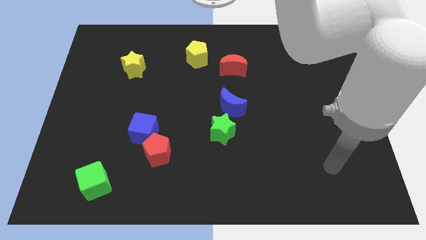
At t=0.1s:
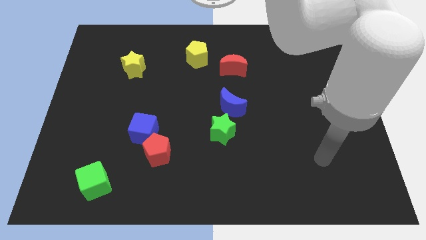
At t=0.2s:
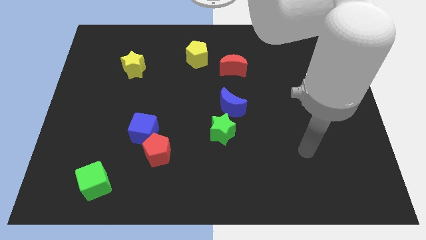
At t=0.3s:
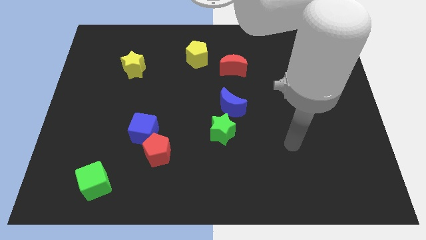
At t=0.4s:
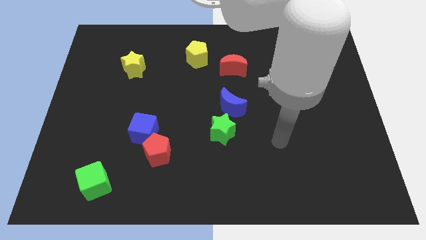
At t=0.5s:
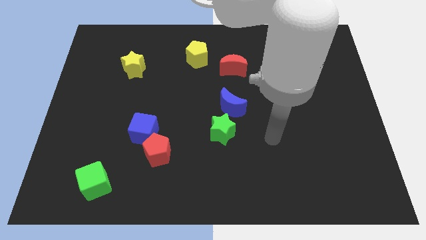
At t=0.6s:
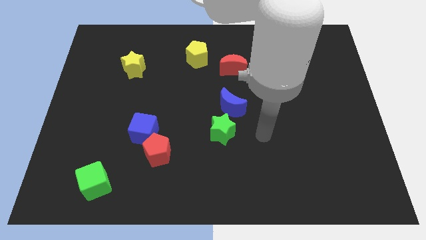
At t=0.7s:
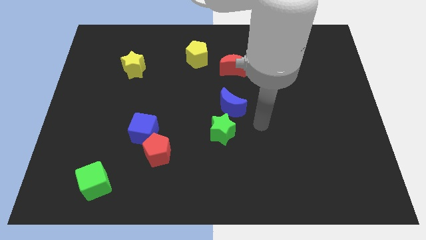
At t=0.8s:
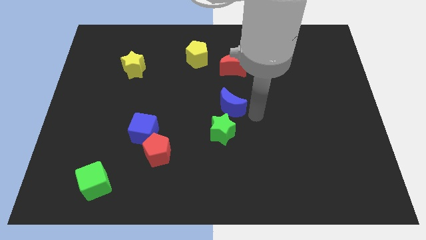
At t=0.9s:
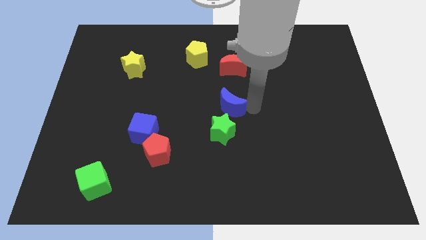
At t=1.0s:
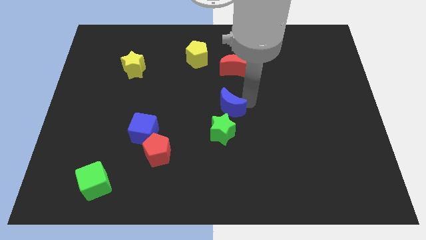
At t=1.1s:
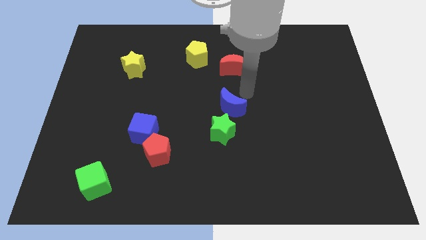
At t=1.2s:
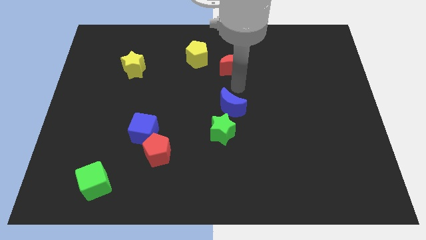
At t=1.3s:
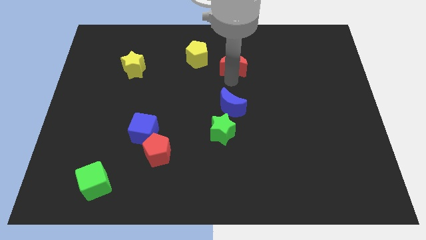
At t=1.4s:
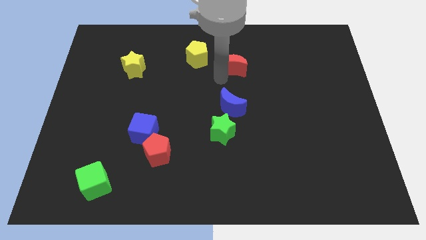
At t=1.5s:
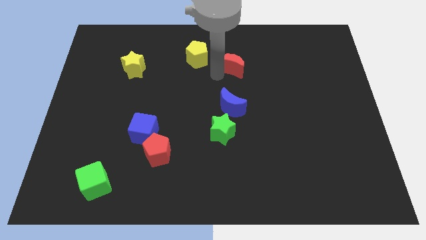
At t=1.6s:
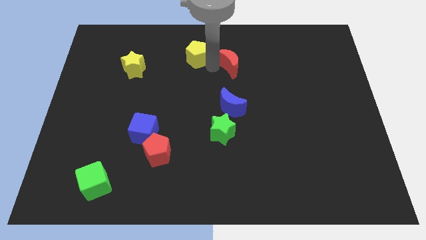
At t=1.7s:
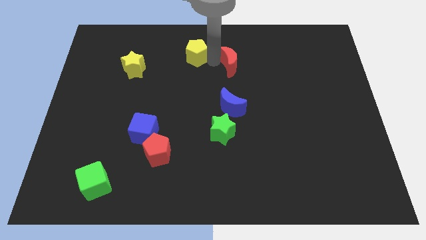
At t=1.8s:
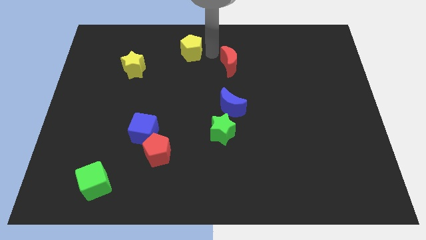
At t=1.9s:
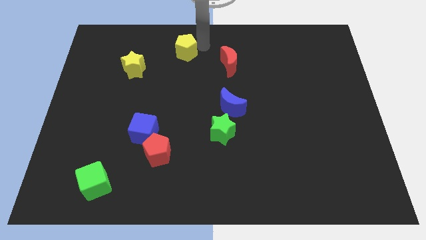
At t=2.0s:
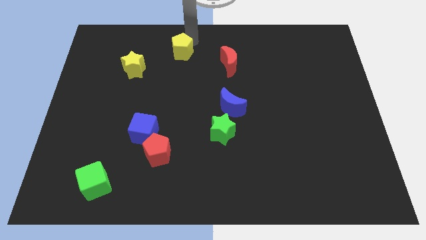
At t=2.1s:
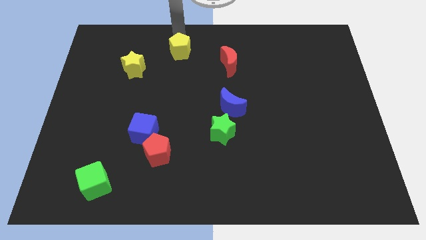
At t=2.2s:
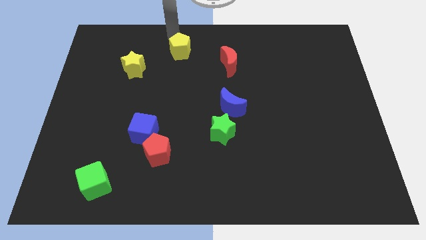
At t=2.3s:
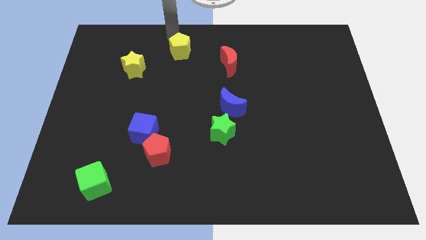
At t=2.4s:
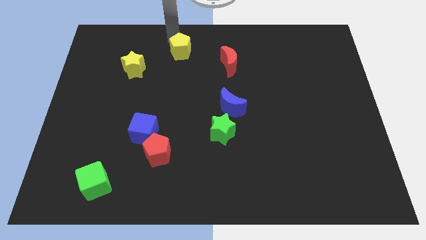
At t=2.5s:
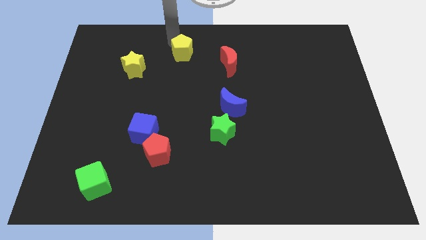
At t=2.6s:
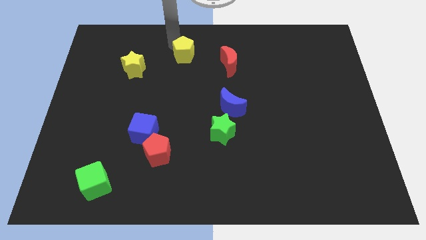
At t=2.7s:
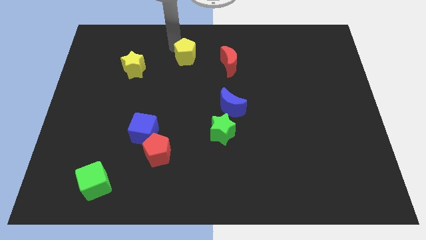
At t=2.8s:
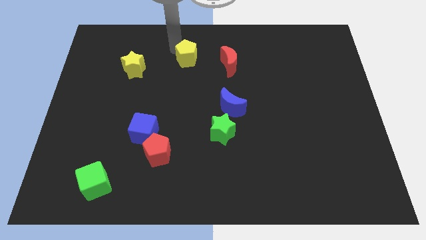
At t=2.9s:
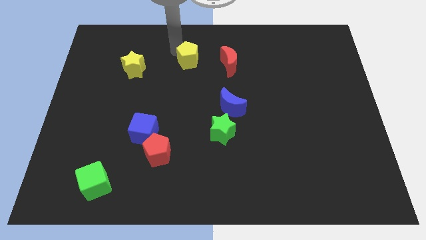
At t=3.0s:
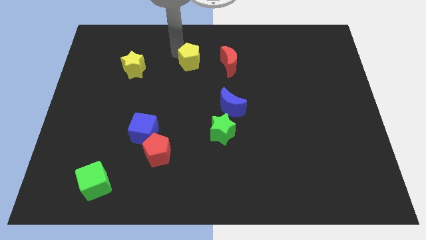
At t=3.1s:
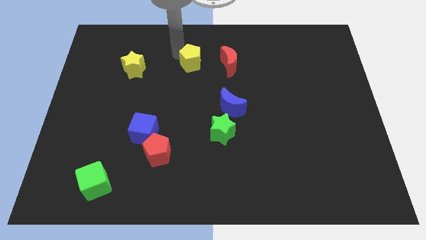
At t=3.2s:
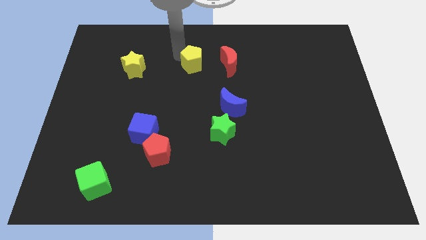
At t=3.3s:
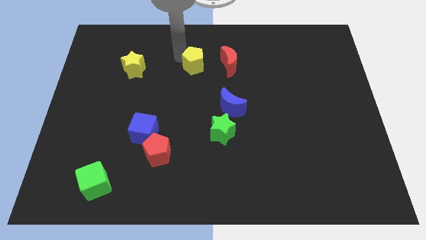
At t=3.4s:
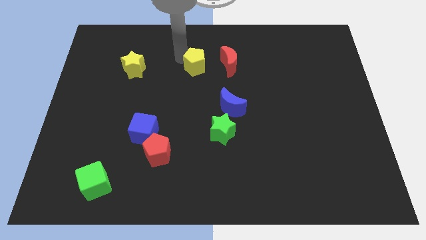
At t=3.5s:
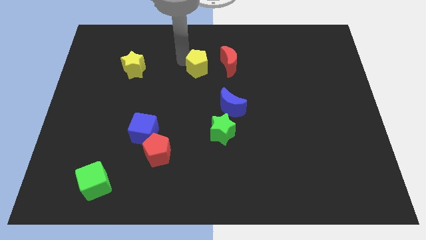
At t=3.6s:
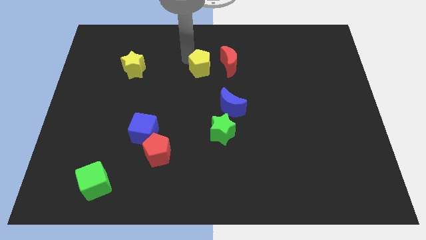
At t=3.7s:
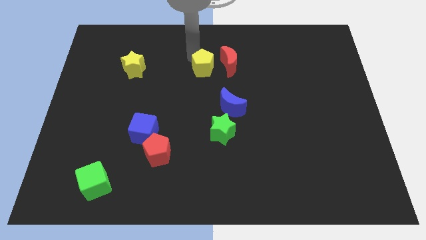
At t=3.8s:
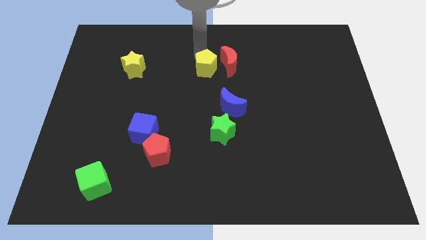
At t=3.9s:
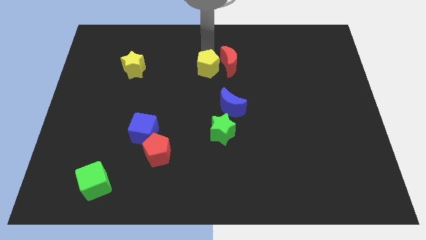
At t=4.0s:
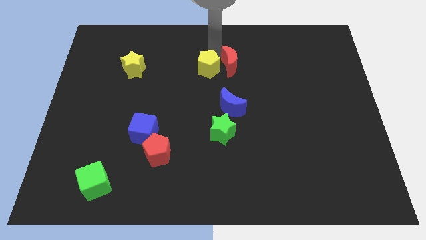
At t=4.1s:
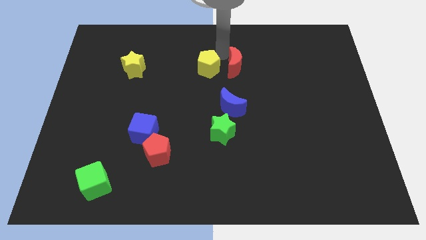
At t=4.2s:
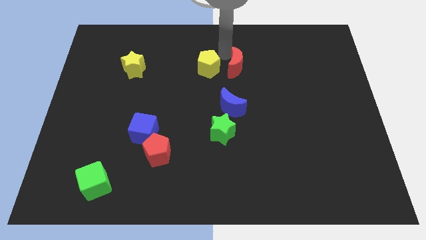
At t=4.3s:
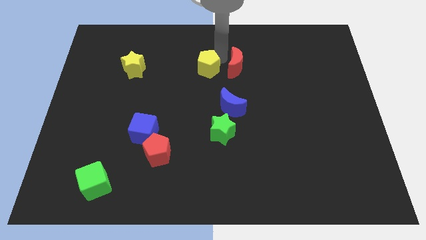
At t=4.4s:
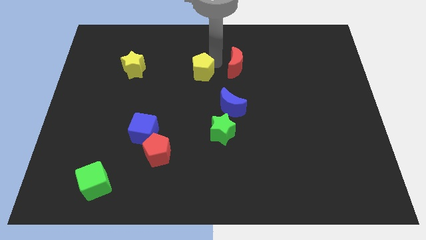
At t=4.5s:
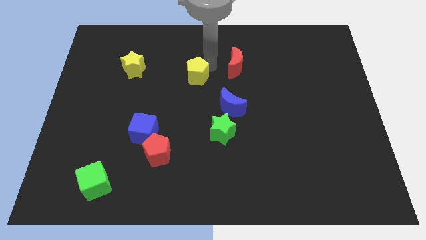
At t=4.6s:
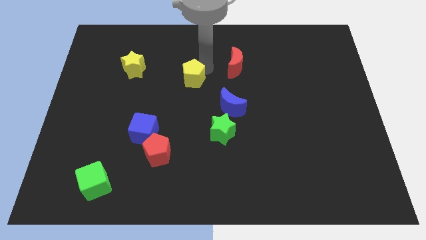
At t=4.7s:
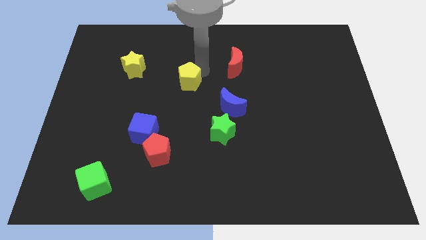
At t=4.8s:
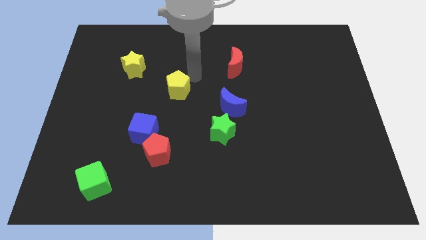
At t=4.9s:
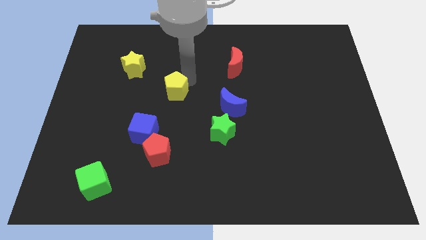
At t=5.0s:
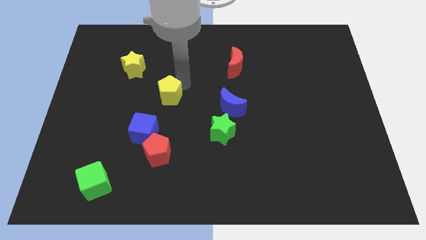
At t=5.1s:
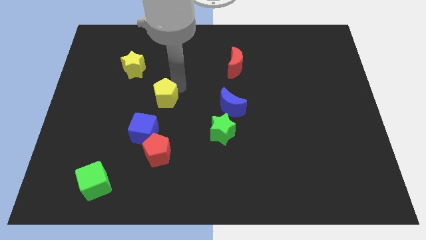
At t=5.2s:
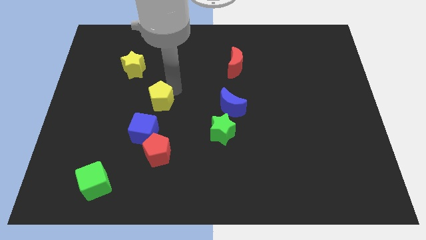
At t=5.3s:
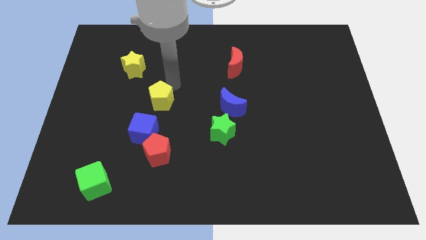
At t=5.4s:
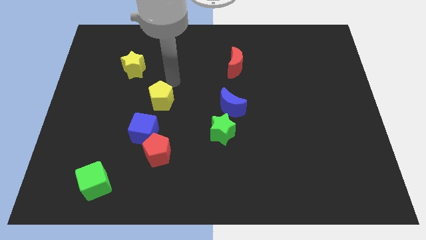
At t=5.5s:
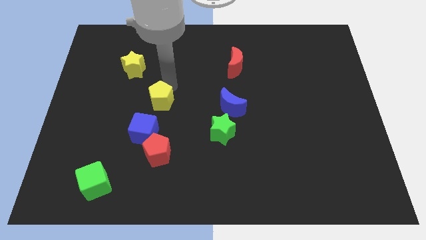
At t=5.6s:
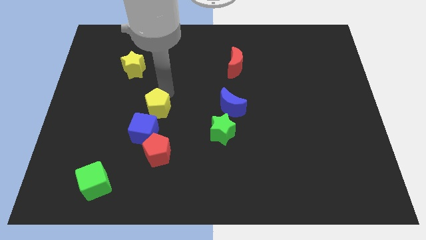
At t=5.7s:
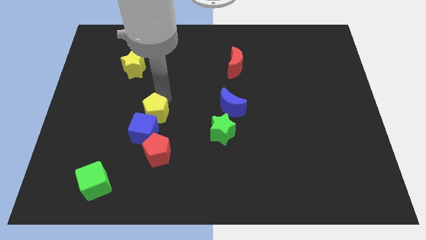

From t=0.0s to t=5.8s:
put the yellow pentagon close to the blue cube

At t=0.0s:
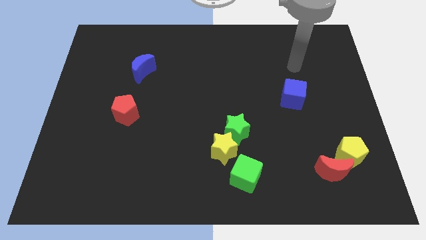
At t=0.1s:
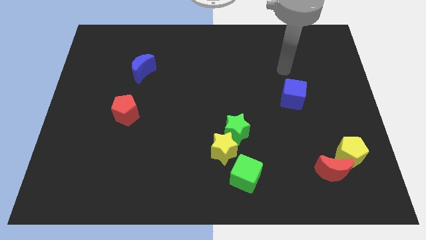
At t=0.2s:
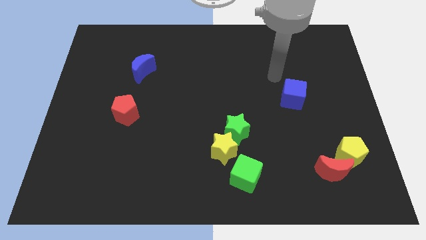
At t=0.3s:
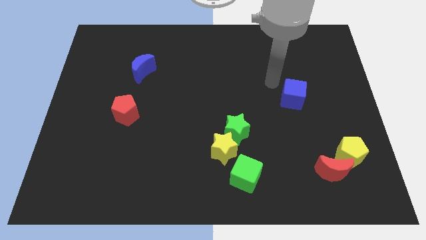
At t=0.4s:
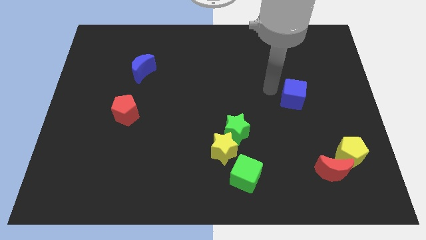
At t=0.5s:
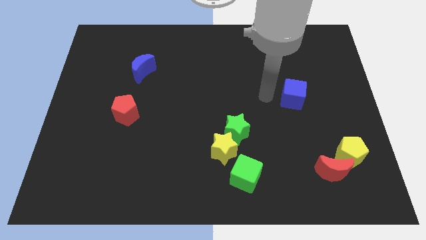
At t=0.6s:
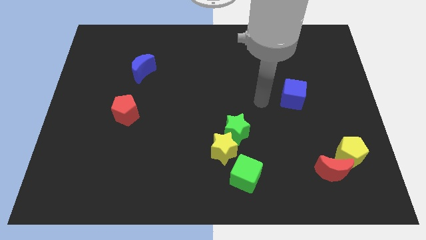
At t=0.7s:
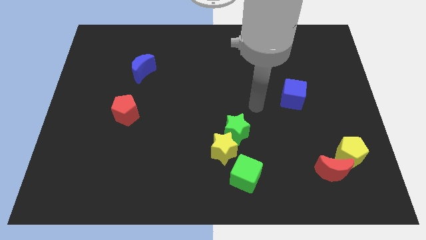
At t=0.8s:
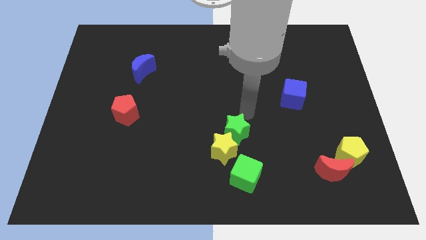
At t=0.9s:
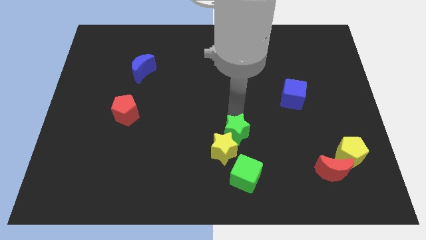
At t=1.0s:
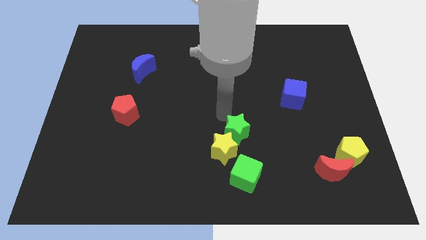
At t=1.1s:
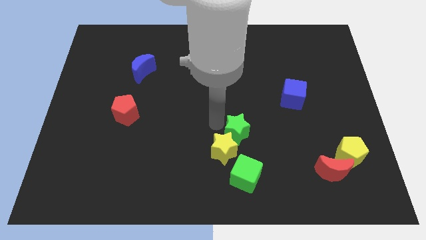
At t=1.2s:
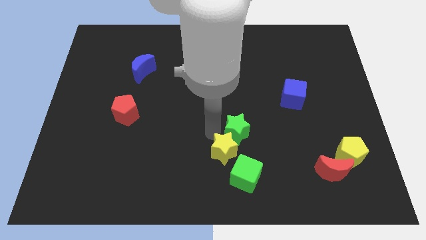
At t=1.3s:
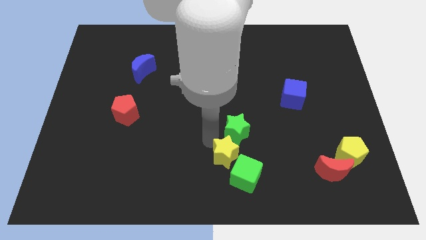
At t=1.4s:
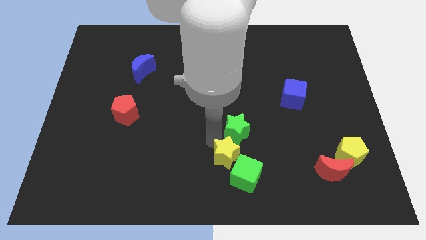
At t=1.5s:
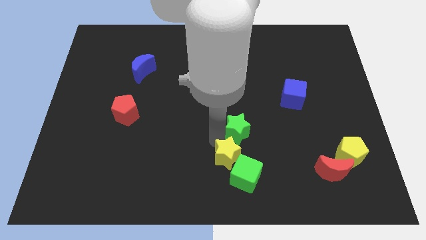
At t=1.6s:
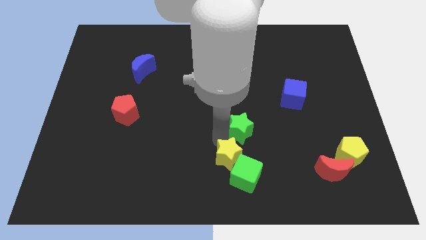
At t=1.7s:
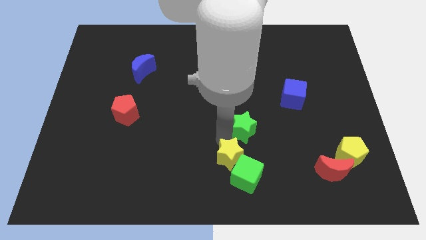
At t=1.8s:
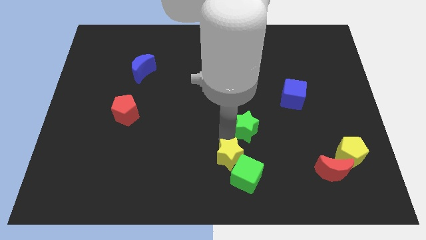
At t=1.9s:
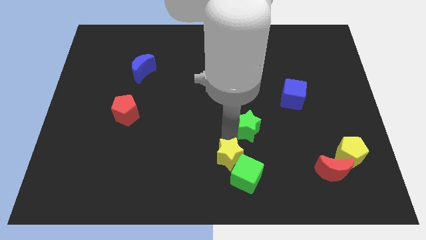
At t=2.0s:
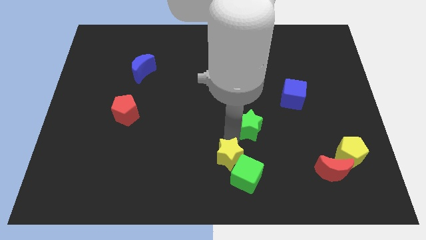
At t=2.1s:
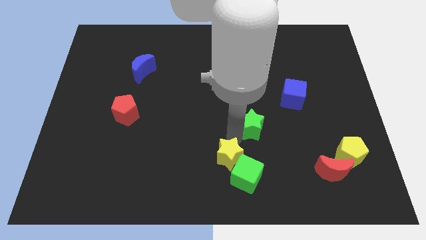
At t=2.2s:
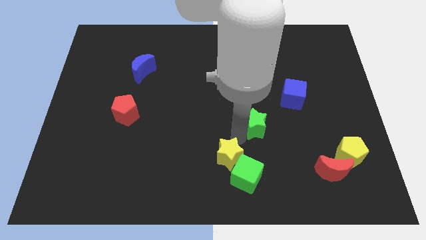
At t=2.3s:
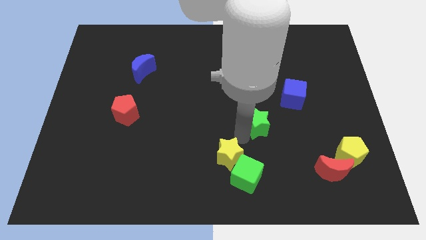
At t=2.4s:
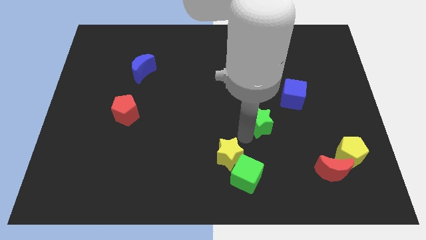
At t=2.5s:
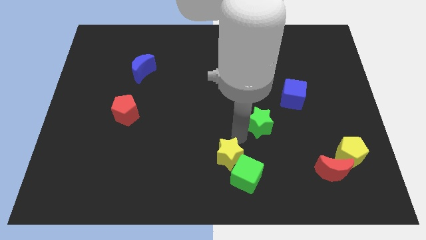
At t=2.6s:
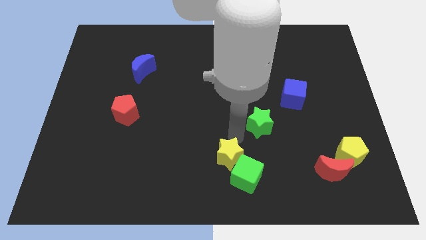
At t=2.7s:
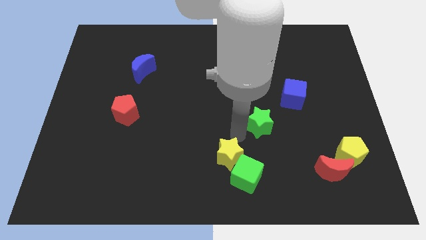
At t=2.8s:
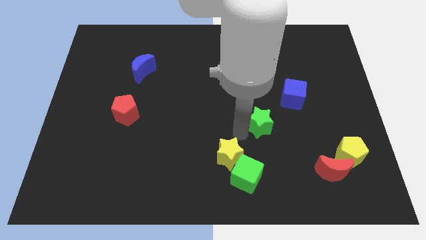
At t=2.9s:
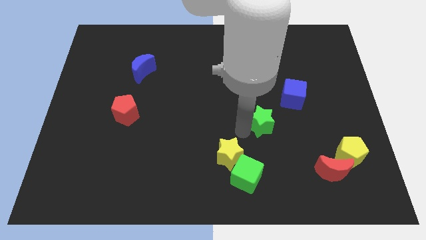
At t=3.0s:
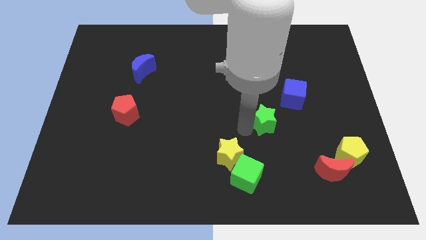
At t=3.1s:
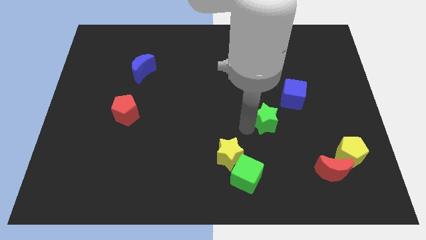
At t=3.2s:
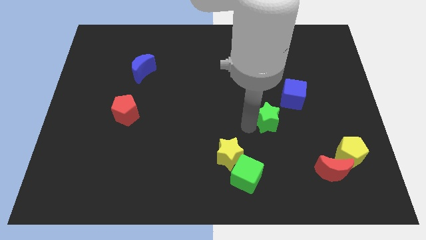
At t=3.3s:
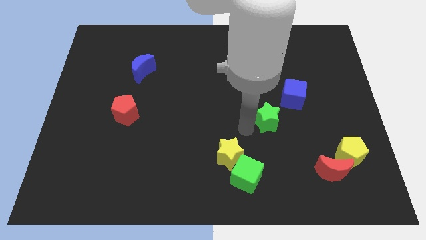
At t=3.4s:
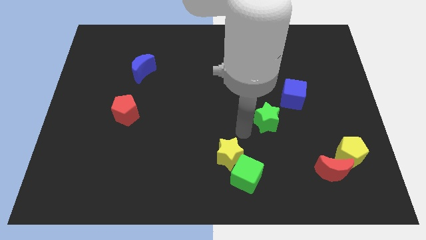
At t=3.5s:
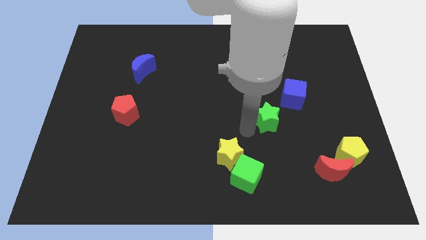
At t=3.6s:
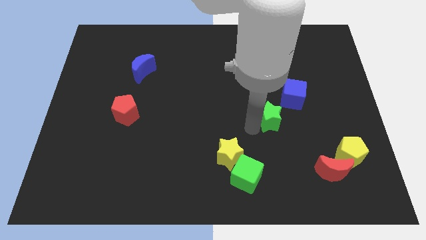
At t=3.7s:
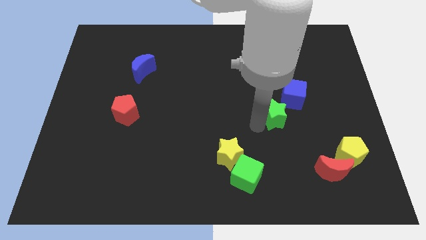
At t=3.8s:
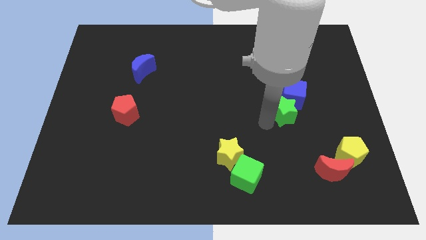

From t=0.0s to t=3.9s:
put the green star close to the blue cube
